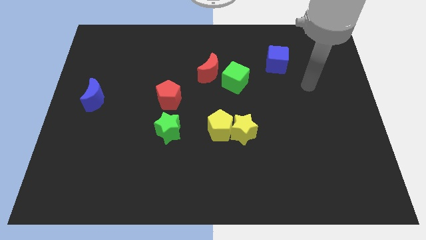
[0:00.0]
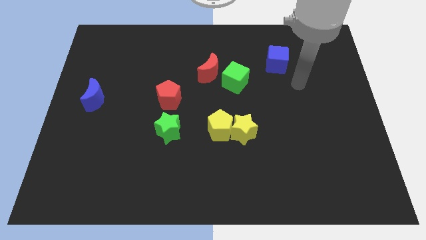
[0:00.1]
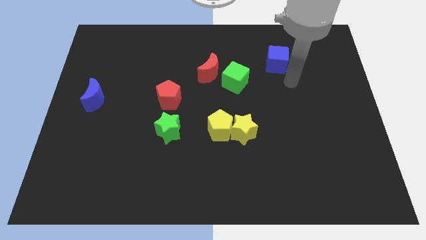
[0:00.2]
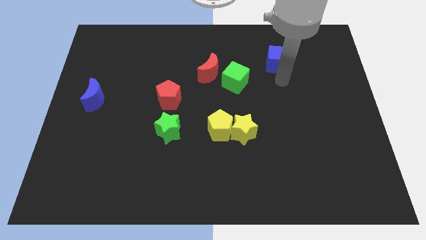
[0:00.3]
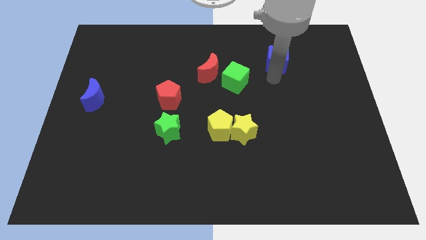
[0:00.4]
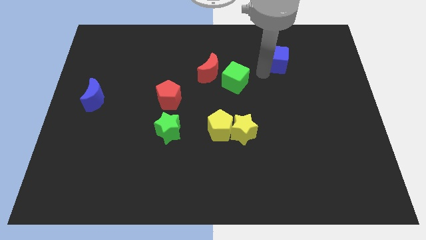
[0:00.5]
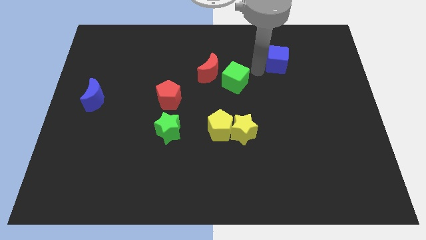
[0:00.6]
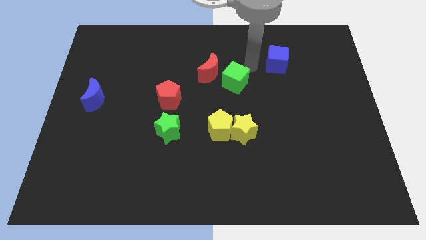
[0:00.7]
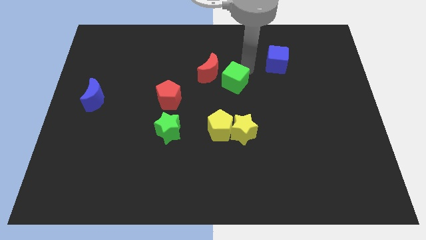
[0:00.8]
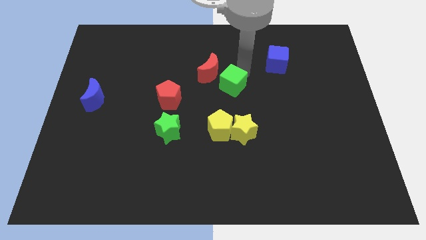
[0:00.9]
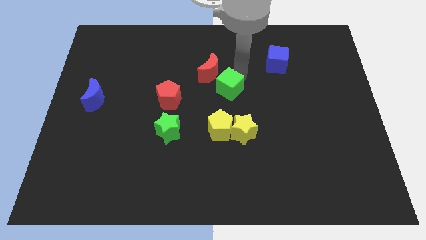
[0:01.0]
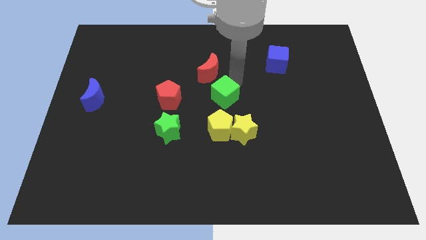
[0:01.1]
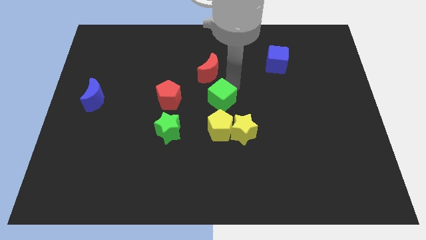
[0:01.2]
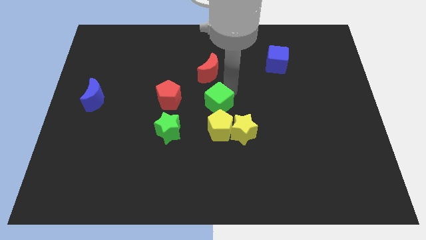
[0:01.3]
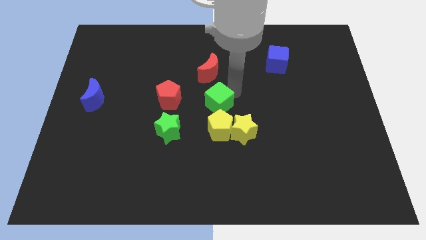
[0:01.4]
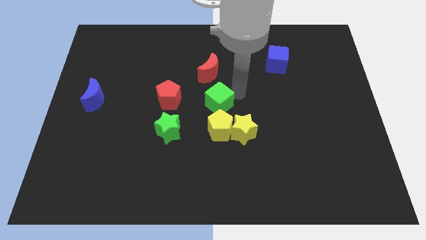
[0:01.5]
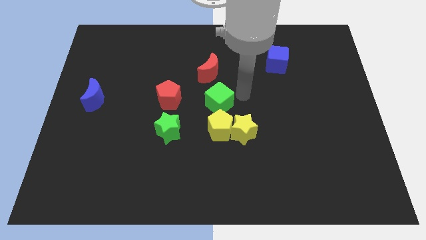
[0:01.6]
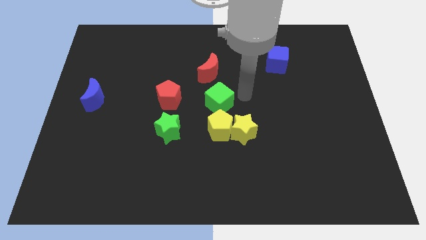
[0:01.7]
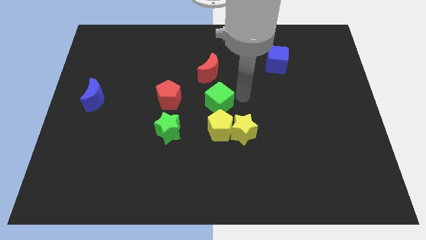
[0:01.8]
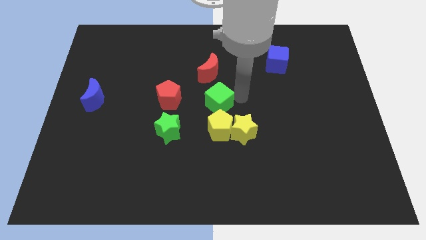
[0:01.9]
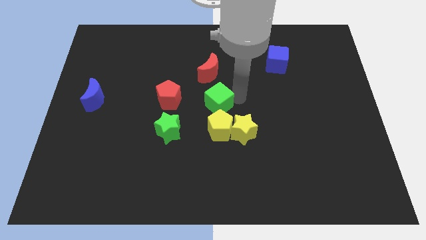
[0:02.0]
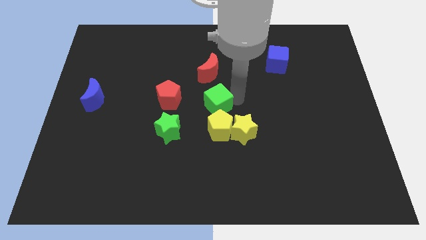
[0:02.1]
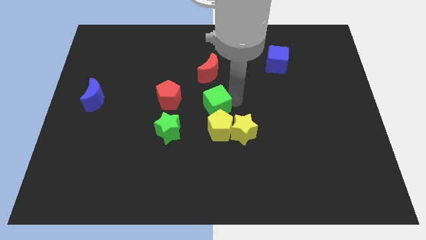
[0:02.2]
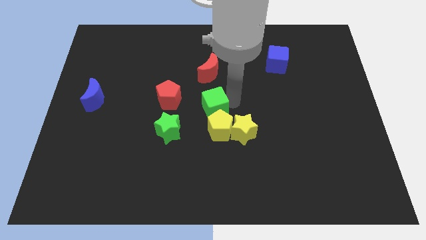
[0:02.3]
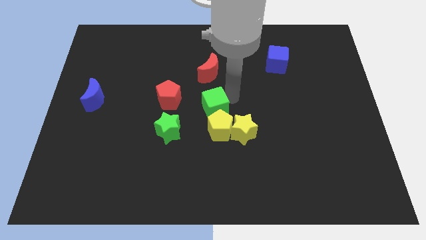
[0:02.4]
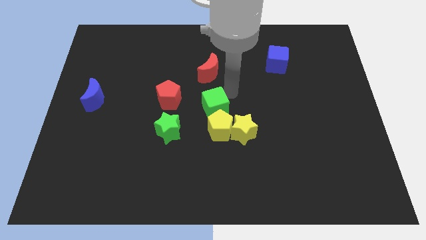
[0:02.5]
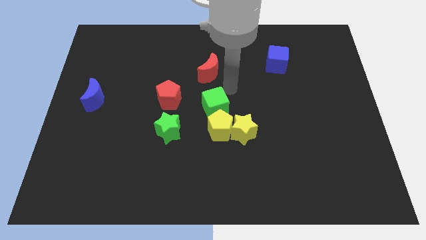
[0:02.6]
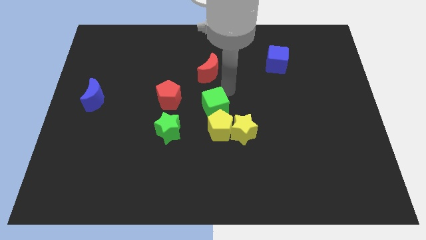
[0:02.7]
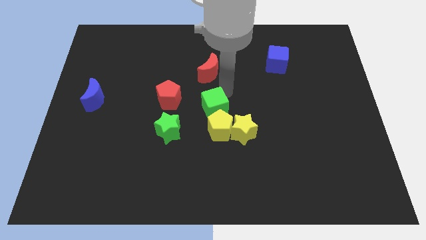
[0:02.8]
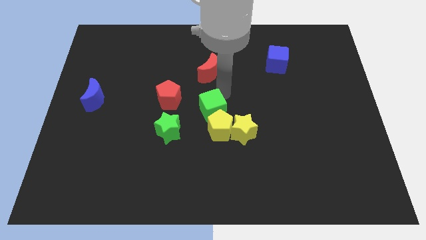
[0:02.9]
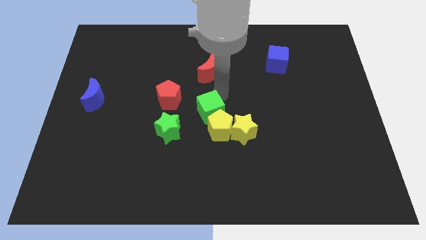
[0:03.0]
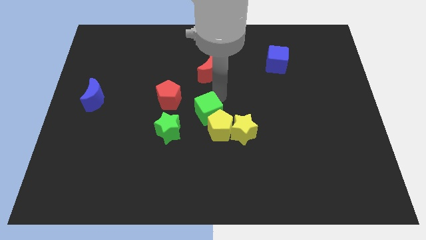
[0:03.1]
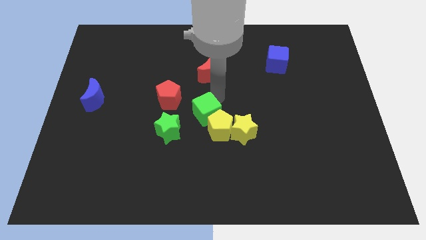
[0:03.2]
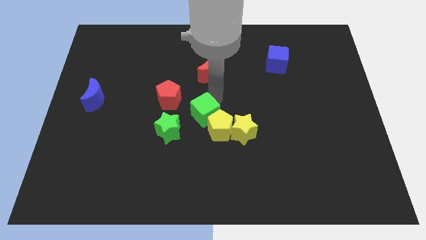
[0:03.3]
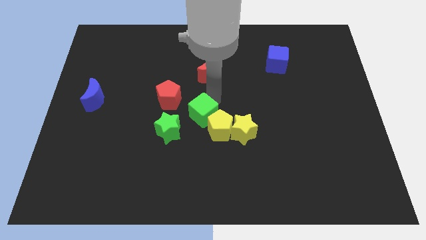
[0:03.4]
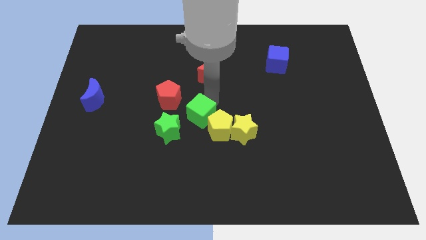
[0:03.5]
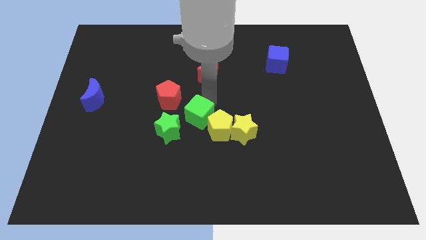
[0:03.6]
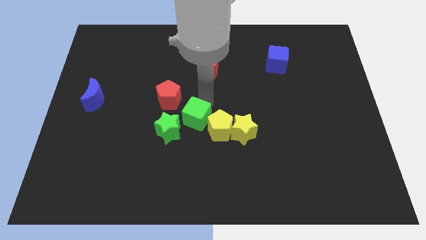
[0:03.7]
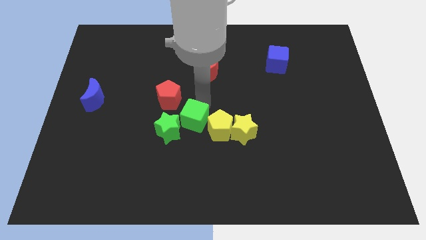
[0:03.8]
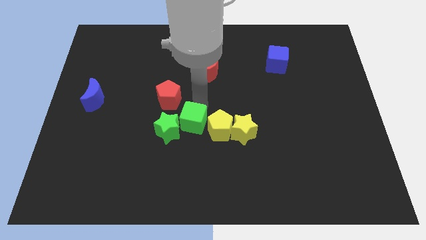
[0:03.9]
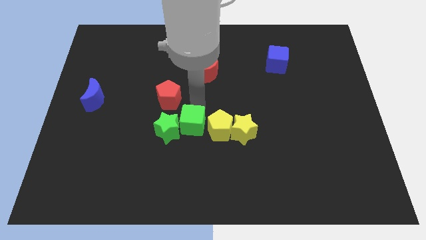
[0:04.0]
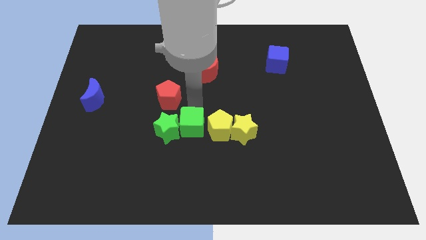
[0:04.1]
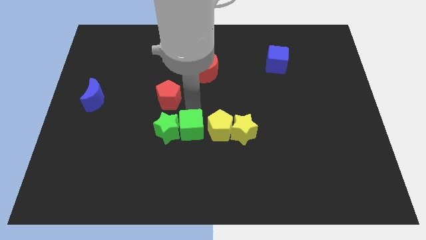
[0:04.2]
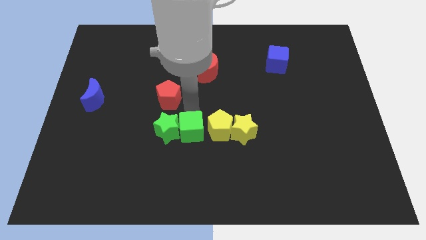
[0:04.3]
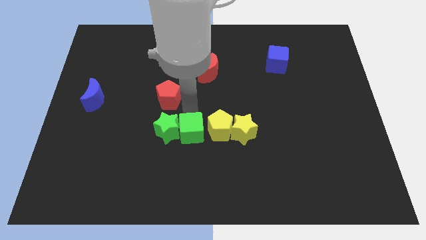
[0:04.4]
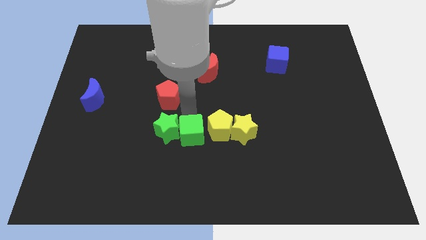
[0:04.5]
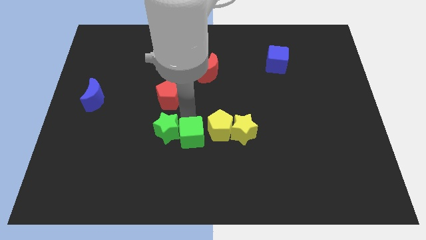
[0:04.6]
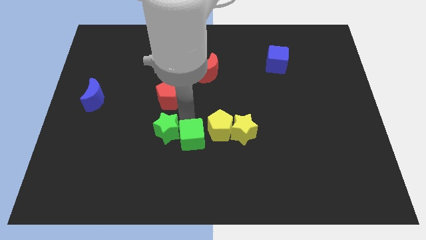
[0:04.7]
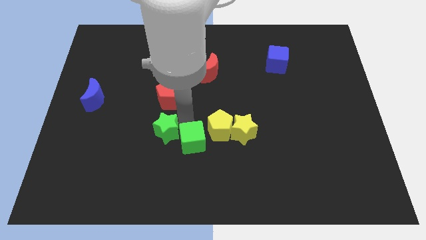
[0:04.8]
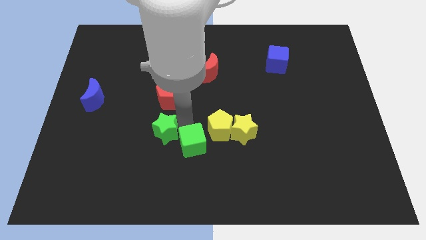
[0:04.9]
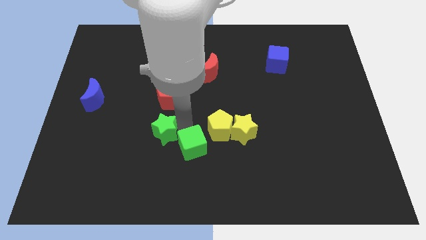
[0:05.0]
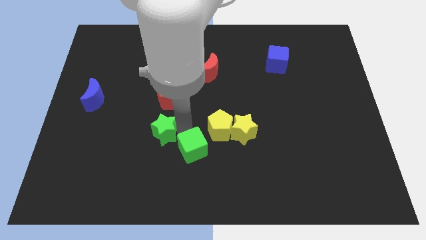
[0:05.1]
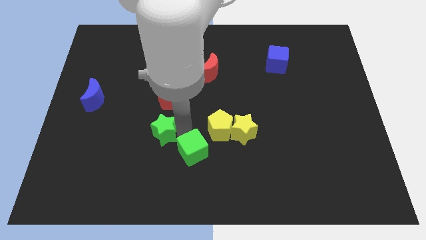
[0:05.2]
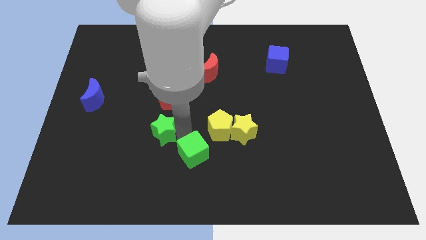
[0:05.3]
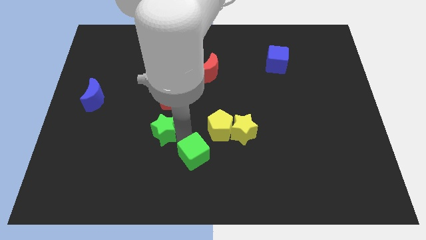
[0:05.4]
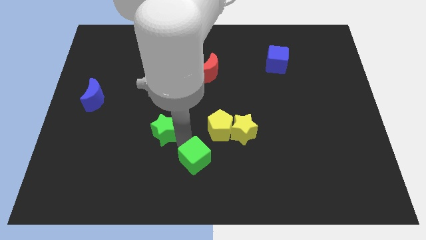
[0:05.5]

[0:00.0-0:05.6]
slide the green cube to the bottom side

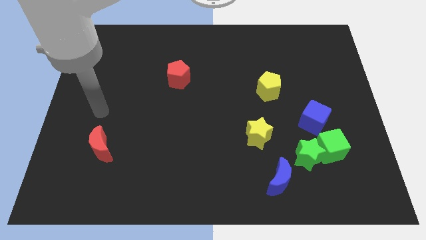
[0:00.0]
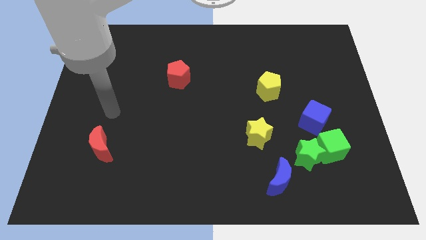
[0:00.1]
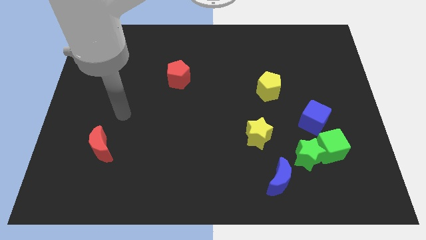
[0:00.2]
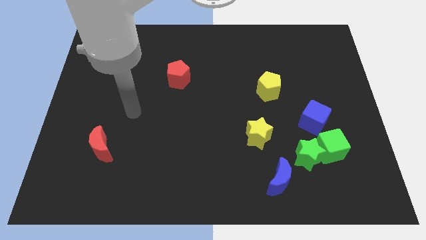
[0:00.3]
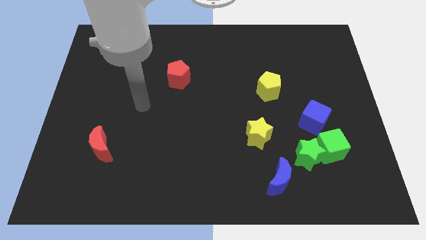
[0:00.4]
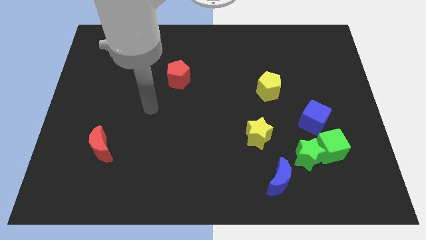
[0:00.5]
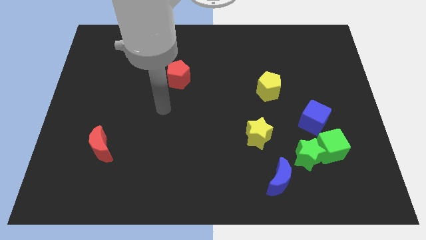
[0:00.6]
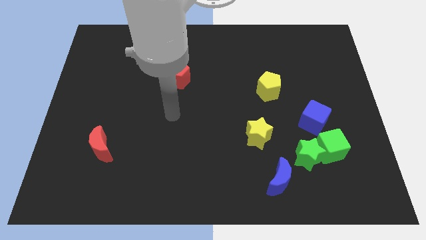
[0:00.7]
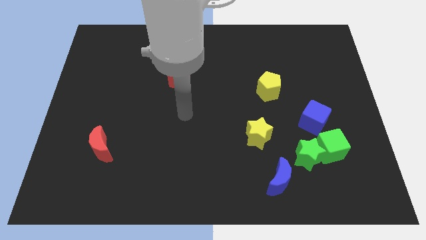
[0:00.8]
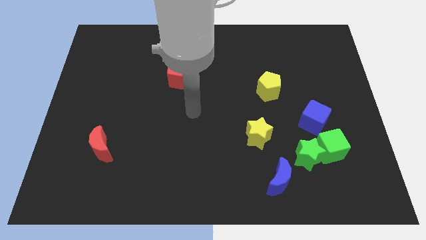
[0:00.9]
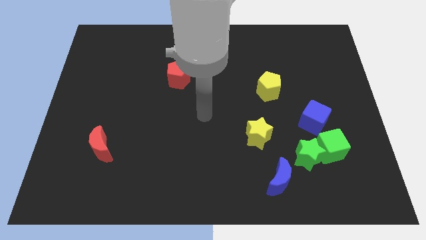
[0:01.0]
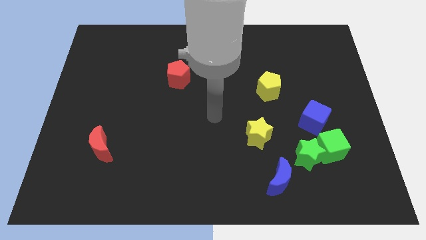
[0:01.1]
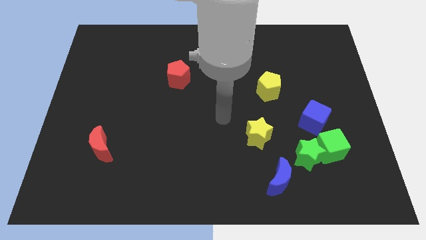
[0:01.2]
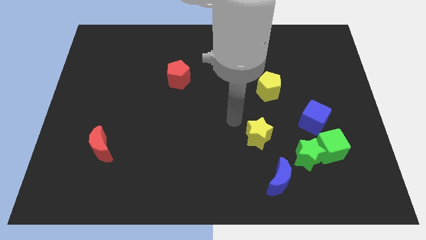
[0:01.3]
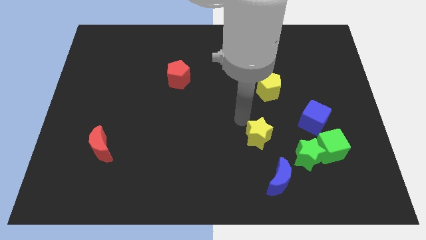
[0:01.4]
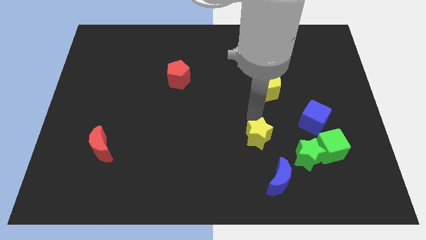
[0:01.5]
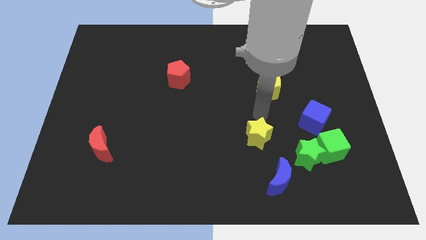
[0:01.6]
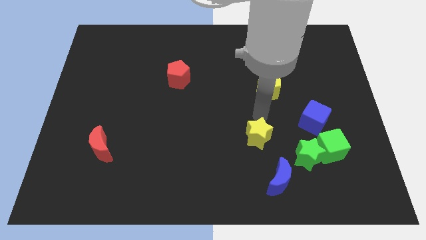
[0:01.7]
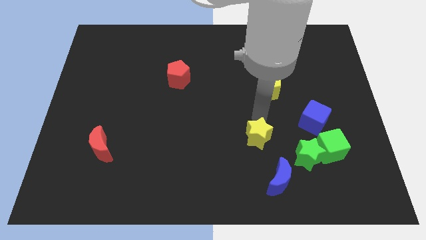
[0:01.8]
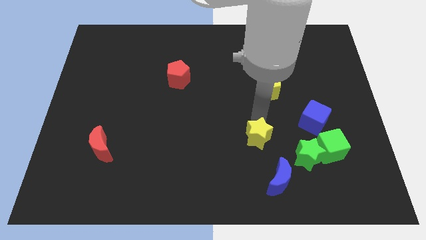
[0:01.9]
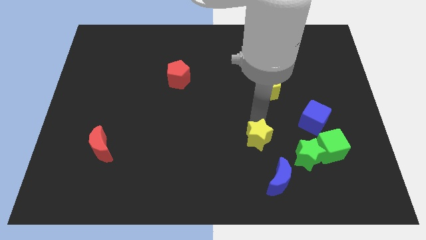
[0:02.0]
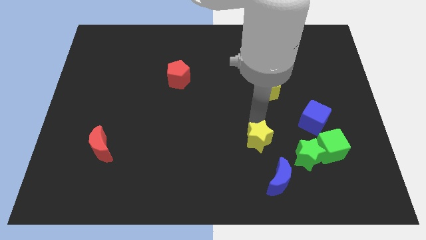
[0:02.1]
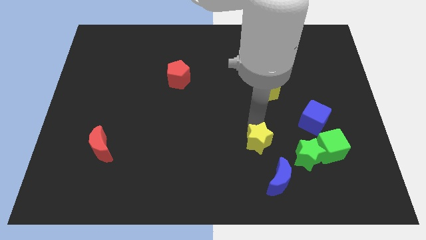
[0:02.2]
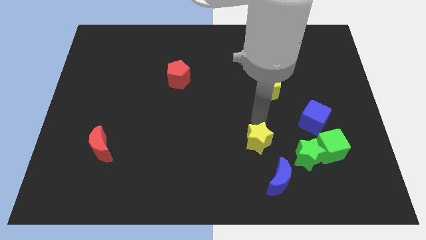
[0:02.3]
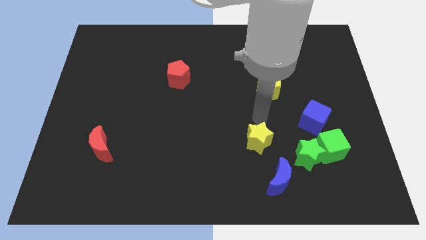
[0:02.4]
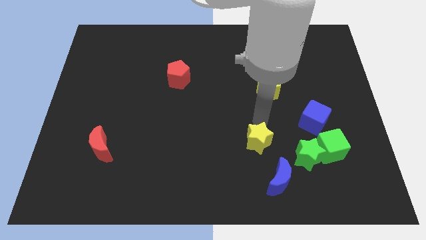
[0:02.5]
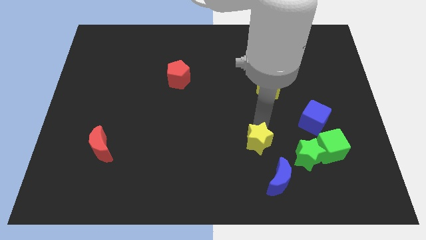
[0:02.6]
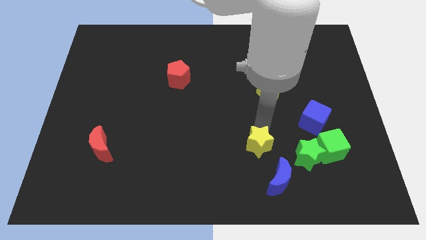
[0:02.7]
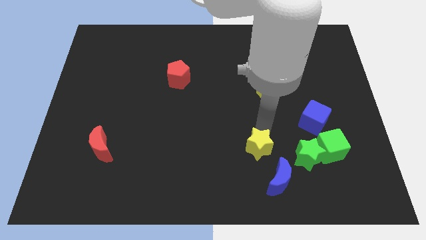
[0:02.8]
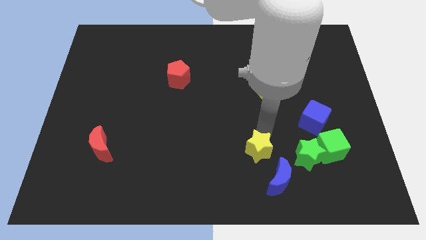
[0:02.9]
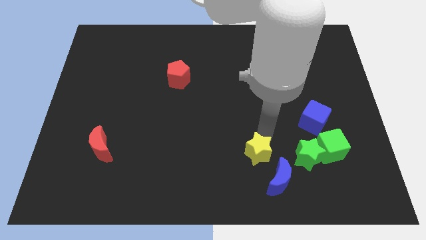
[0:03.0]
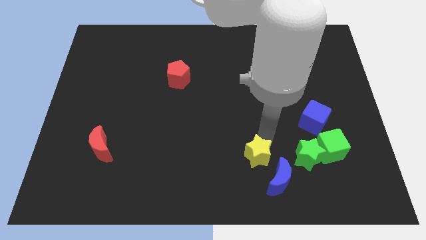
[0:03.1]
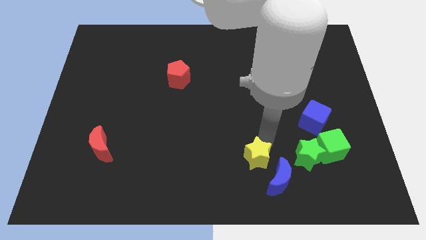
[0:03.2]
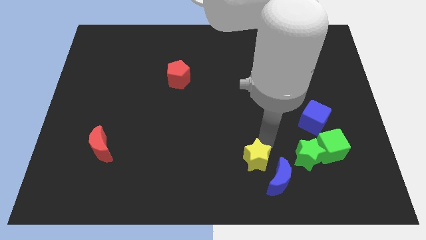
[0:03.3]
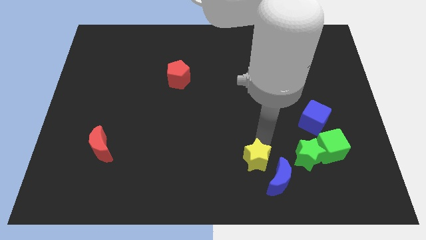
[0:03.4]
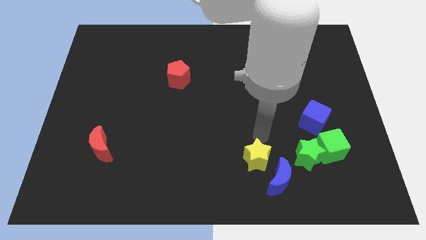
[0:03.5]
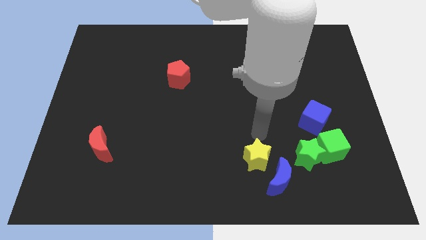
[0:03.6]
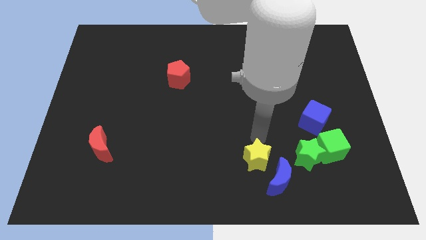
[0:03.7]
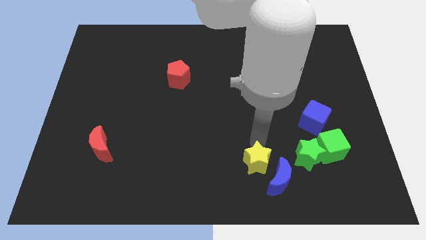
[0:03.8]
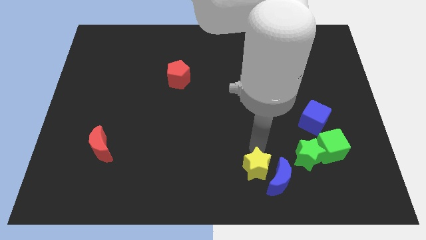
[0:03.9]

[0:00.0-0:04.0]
move the yellow star to the bottom
